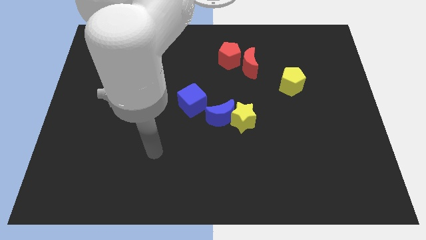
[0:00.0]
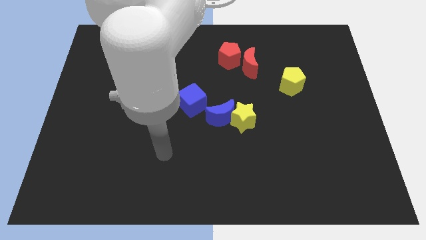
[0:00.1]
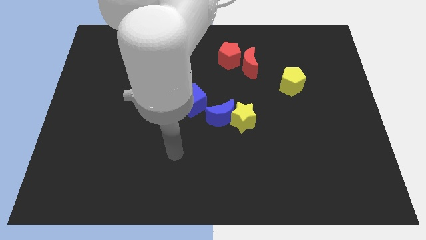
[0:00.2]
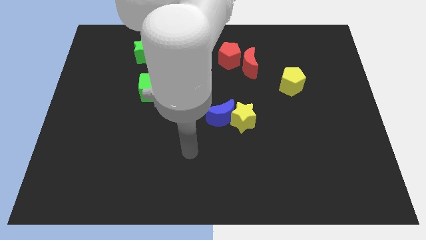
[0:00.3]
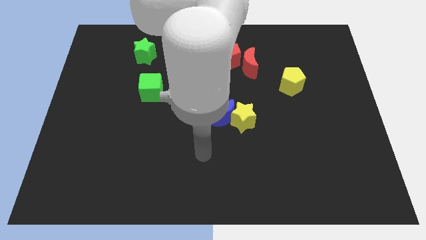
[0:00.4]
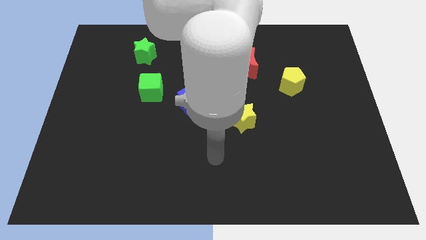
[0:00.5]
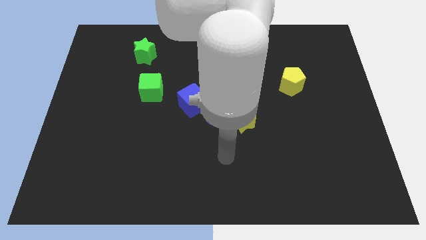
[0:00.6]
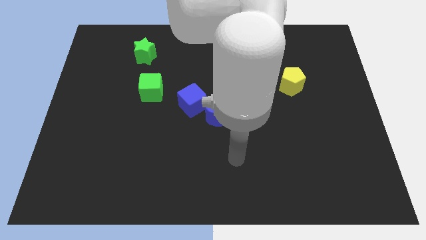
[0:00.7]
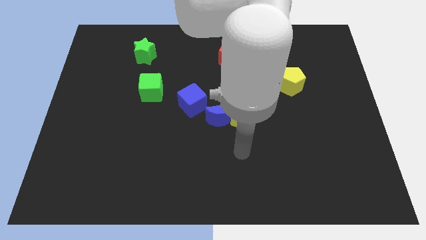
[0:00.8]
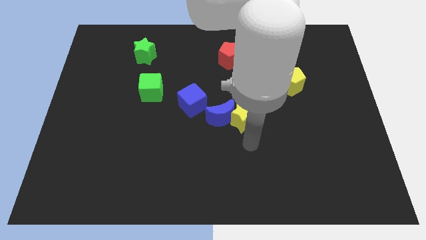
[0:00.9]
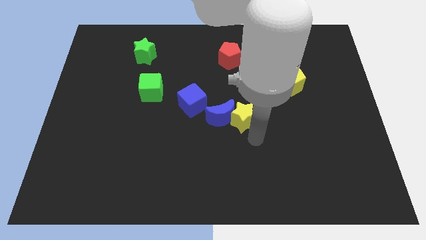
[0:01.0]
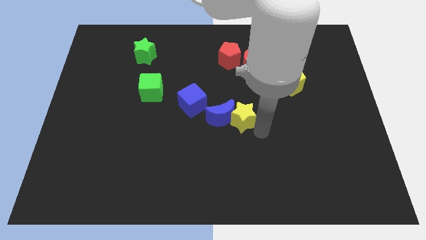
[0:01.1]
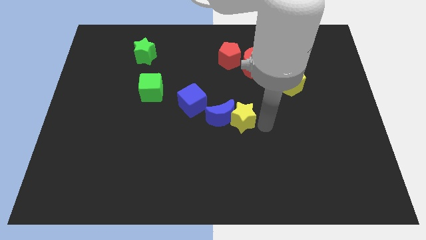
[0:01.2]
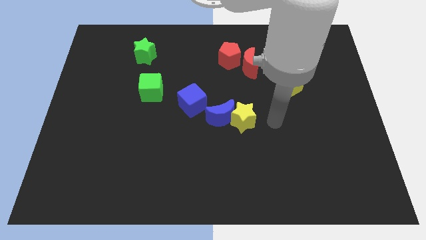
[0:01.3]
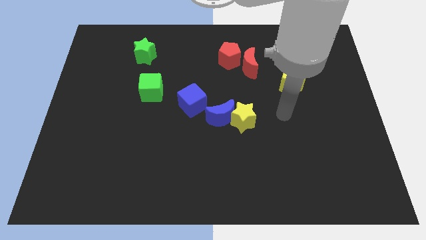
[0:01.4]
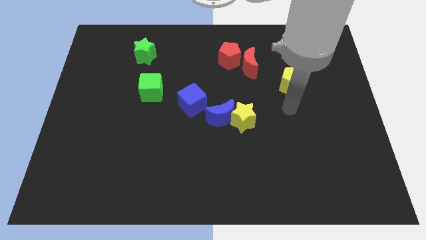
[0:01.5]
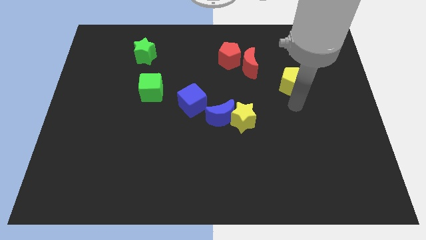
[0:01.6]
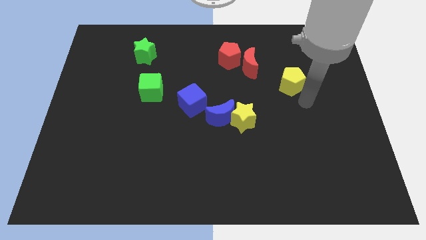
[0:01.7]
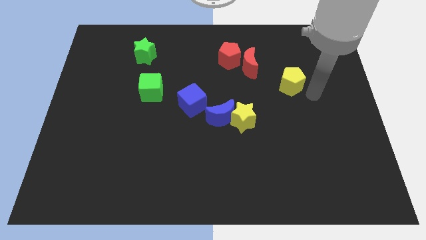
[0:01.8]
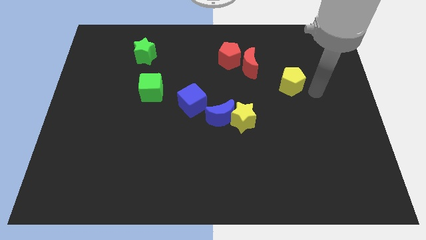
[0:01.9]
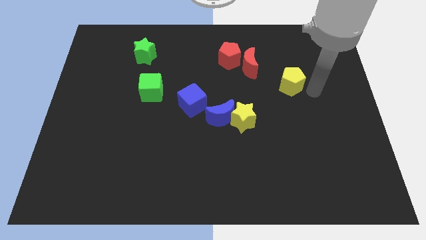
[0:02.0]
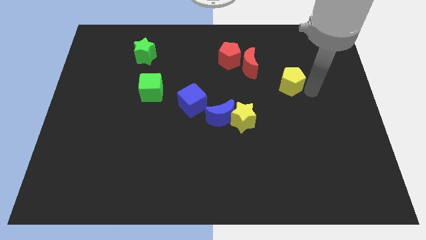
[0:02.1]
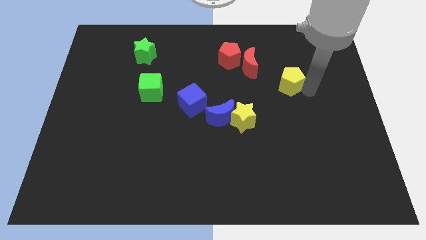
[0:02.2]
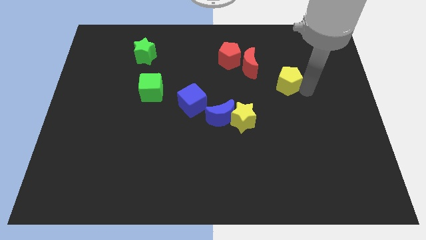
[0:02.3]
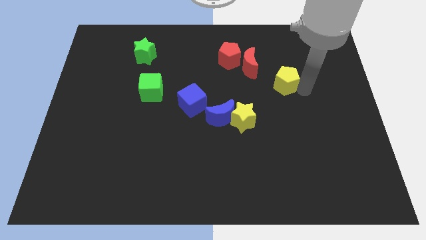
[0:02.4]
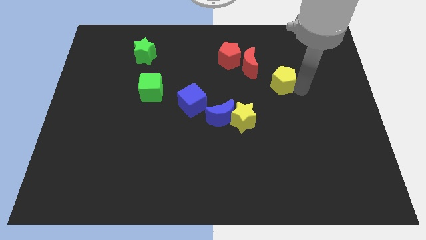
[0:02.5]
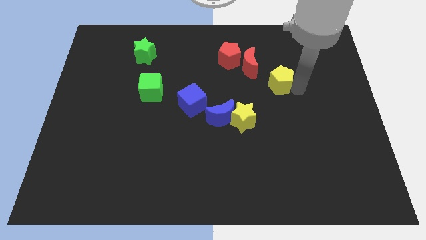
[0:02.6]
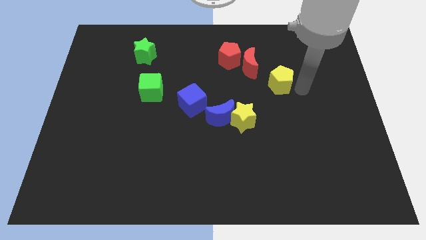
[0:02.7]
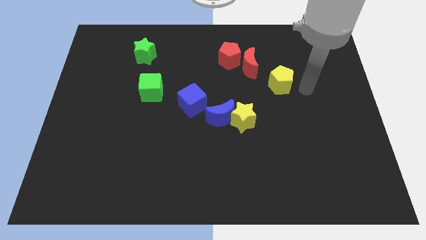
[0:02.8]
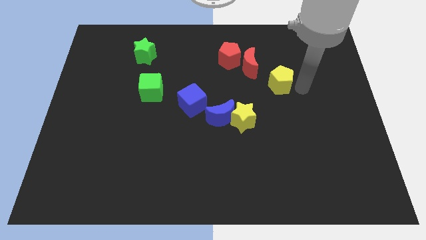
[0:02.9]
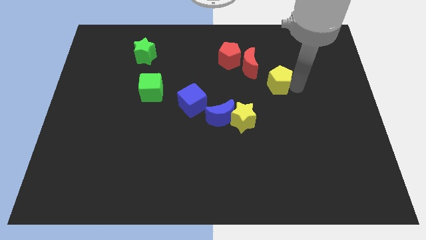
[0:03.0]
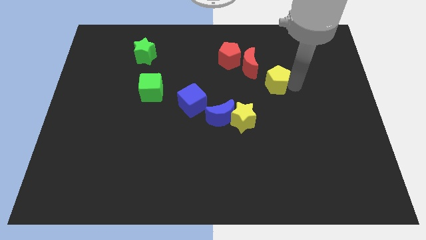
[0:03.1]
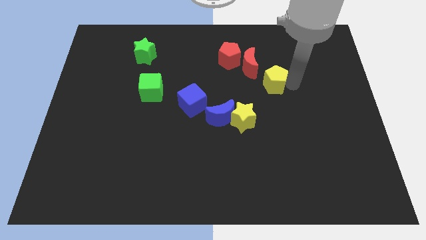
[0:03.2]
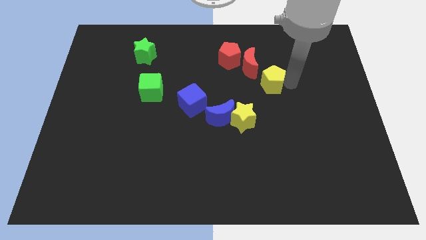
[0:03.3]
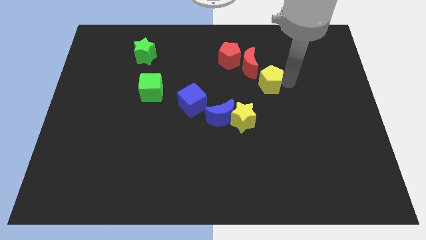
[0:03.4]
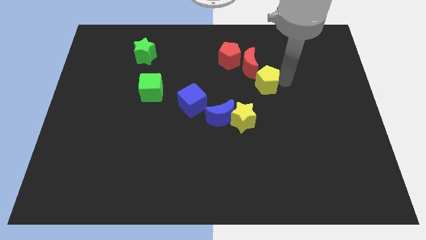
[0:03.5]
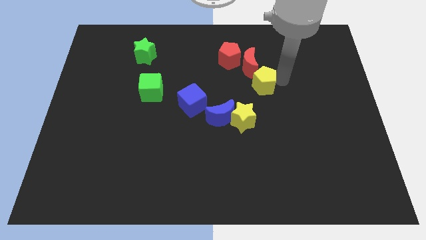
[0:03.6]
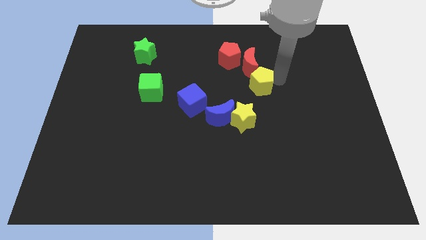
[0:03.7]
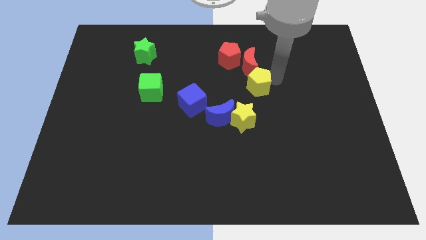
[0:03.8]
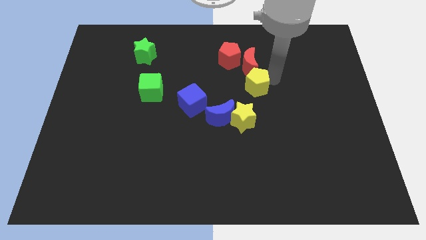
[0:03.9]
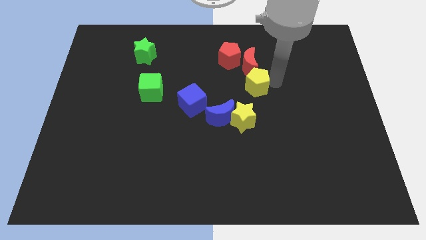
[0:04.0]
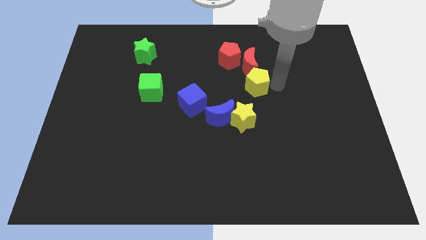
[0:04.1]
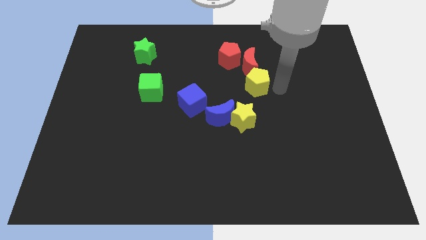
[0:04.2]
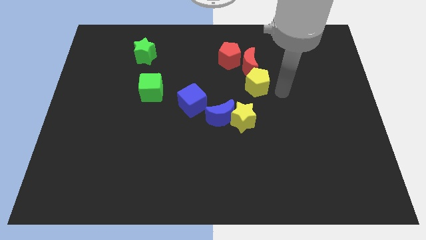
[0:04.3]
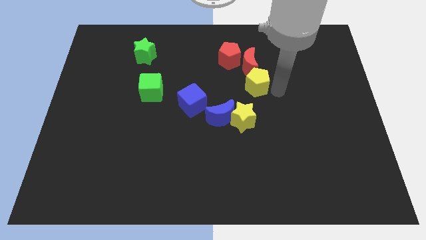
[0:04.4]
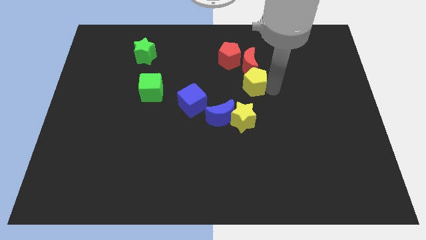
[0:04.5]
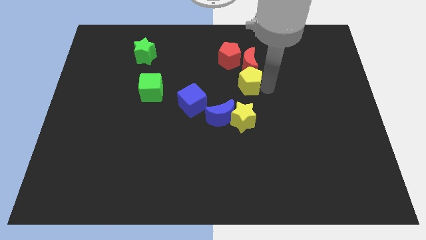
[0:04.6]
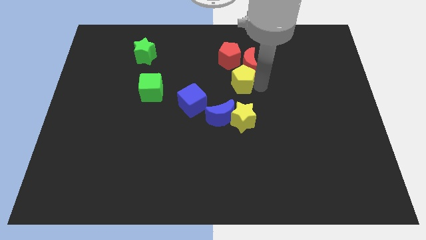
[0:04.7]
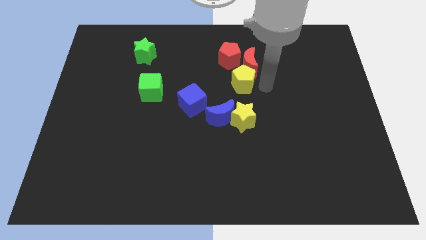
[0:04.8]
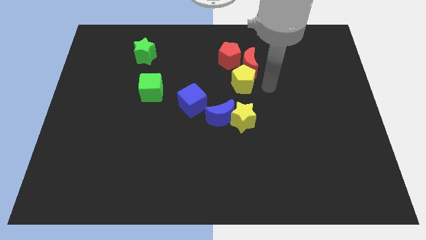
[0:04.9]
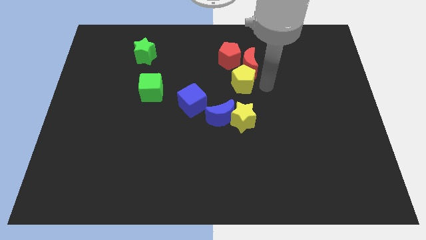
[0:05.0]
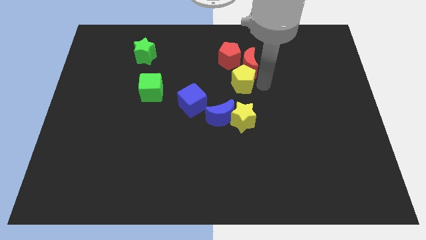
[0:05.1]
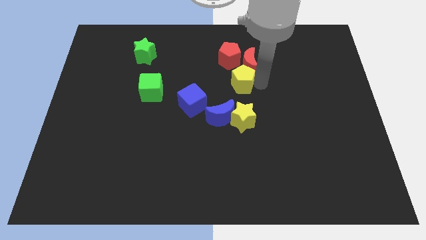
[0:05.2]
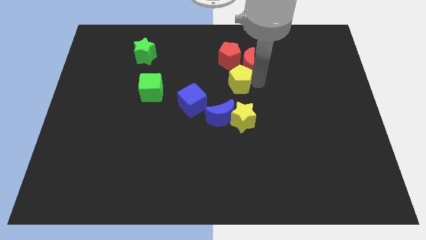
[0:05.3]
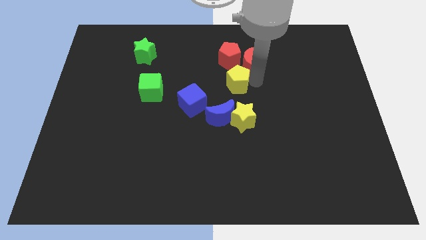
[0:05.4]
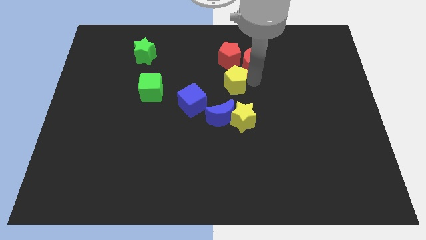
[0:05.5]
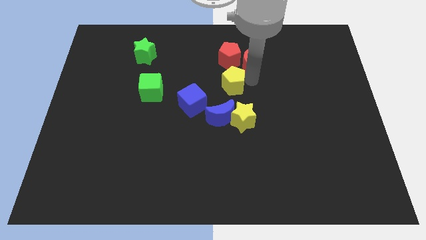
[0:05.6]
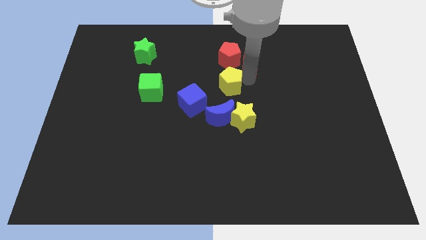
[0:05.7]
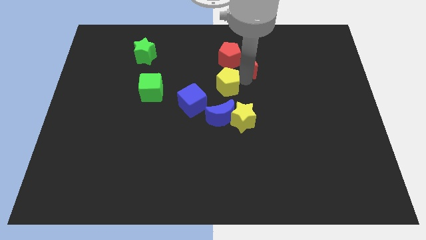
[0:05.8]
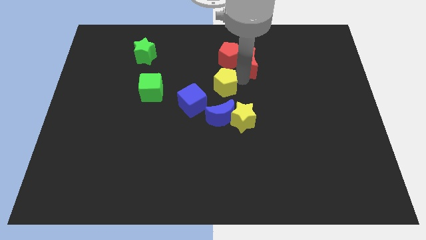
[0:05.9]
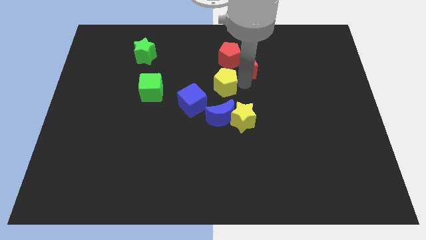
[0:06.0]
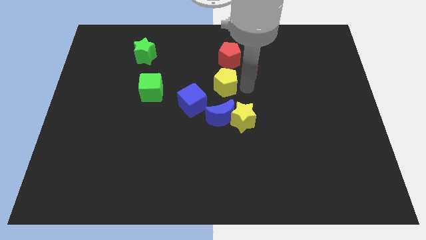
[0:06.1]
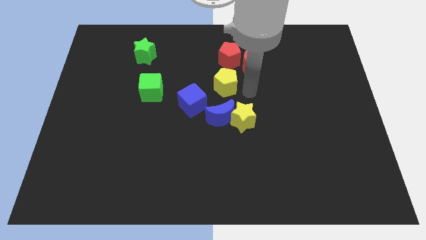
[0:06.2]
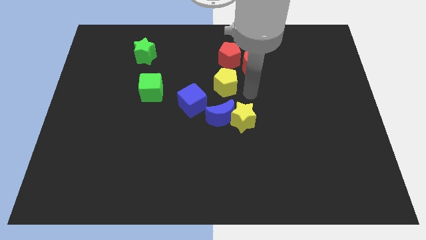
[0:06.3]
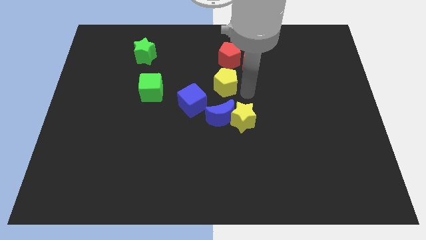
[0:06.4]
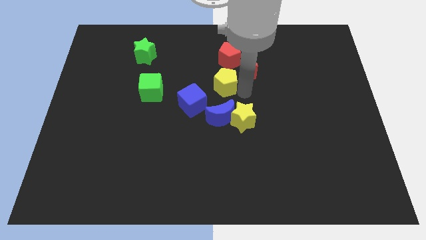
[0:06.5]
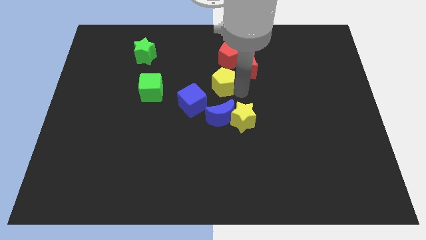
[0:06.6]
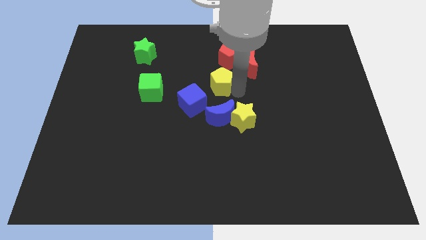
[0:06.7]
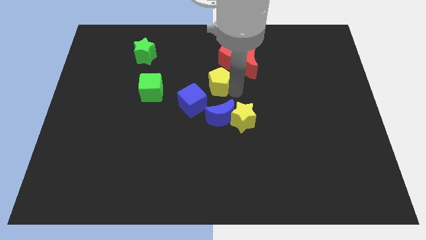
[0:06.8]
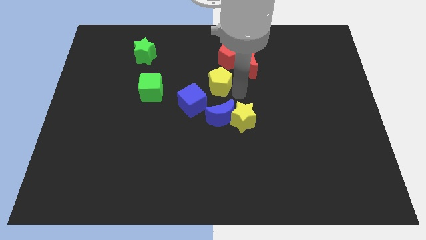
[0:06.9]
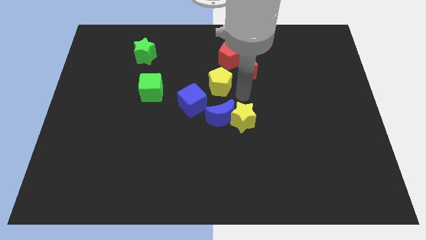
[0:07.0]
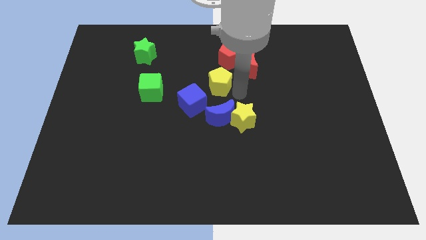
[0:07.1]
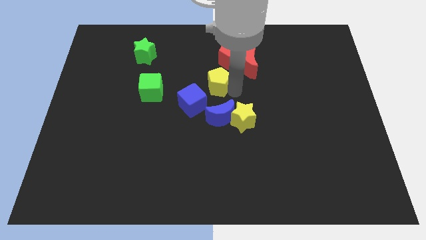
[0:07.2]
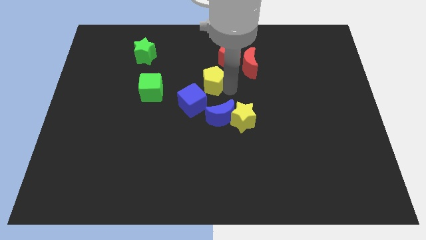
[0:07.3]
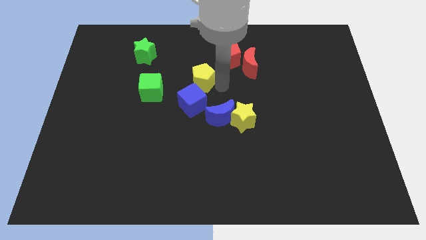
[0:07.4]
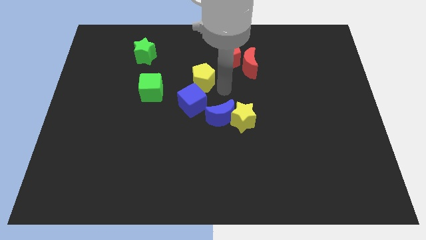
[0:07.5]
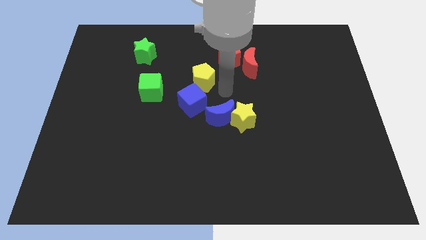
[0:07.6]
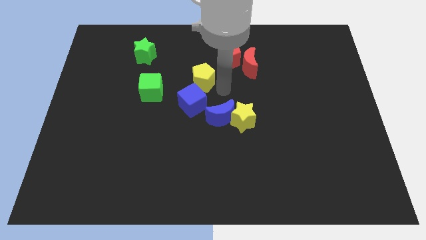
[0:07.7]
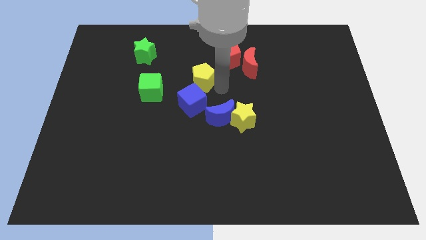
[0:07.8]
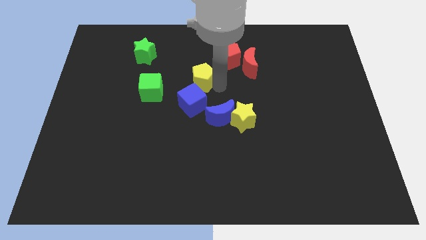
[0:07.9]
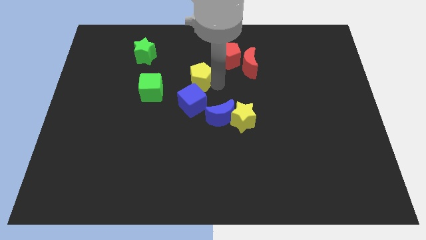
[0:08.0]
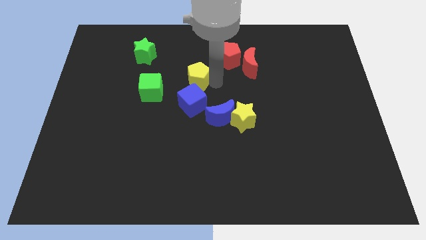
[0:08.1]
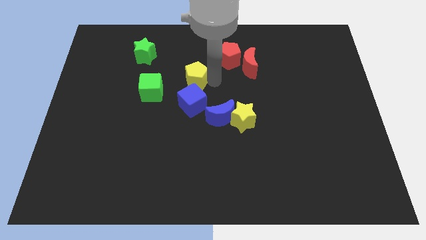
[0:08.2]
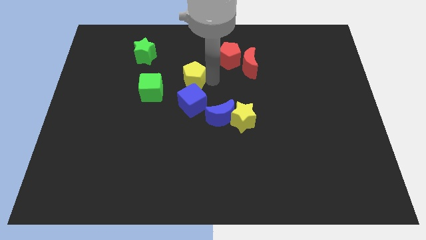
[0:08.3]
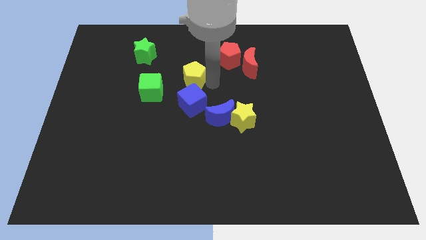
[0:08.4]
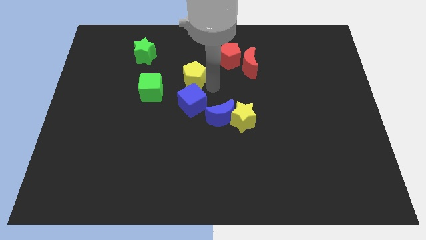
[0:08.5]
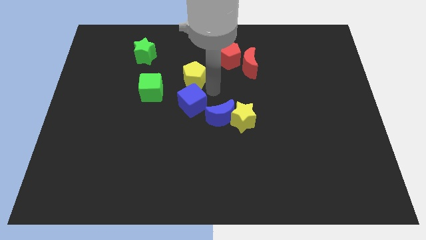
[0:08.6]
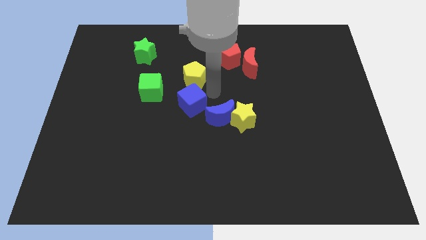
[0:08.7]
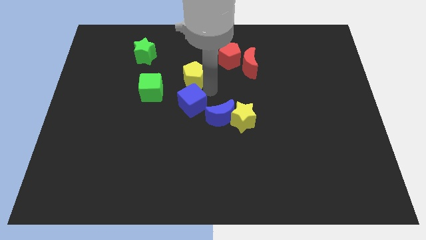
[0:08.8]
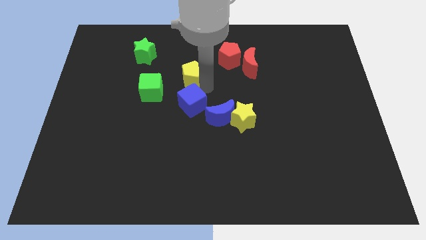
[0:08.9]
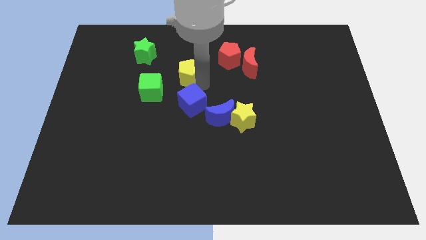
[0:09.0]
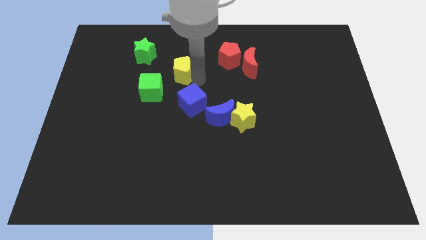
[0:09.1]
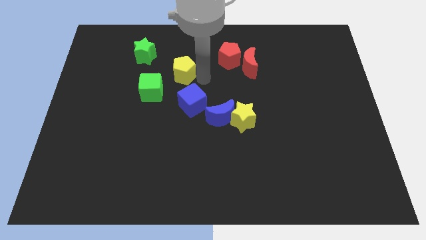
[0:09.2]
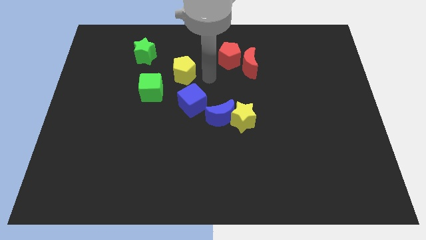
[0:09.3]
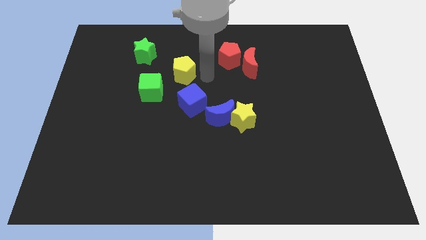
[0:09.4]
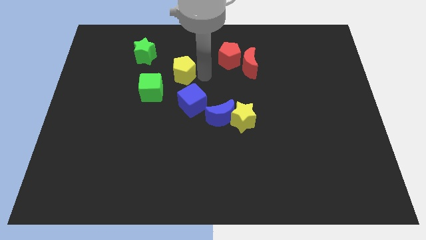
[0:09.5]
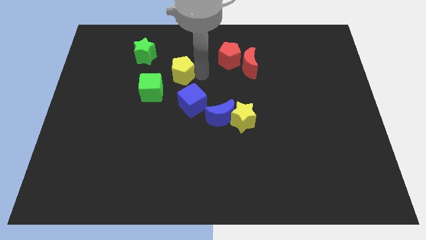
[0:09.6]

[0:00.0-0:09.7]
put the yellow pentagon diagonally down and to the right of the green star
